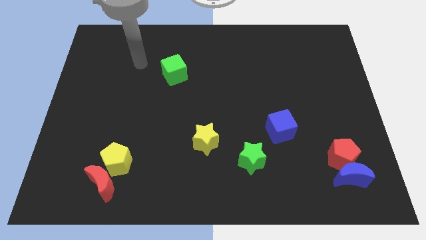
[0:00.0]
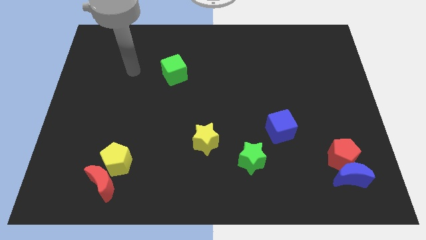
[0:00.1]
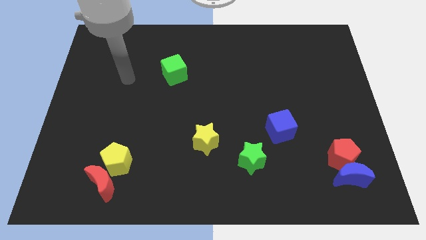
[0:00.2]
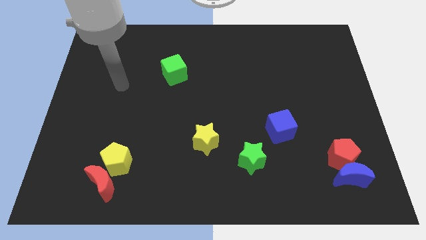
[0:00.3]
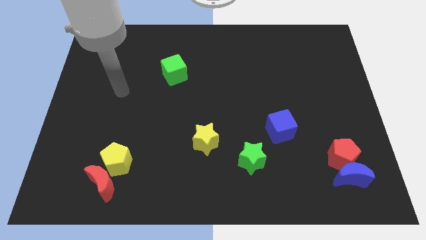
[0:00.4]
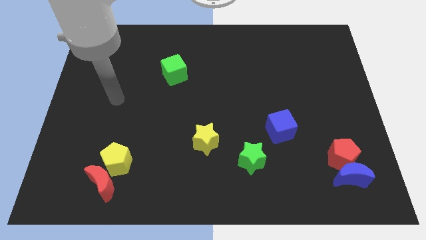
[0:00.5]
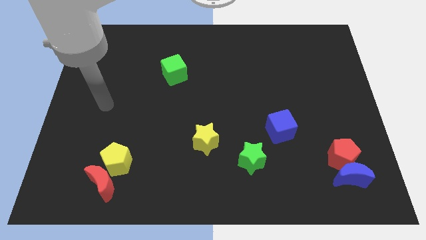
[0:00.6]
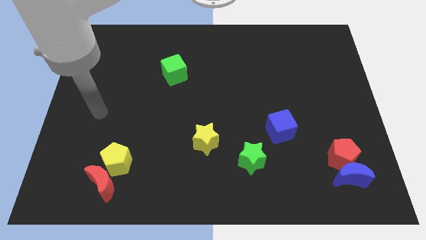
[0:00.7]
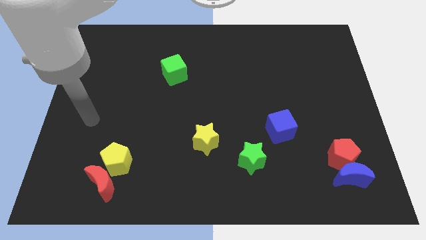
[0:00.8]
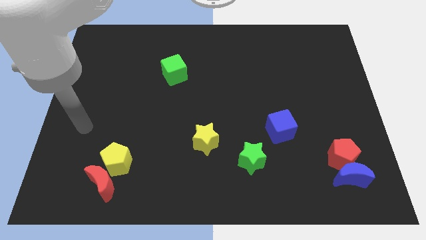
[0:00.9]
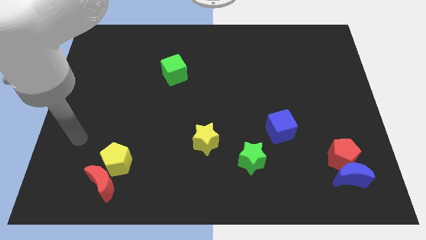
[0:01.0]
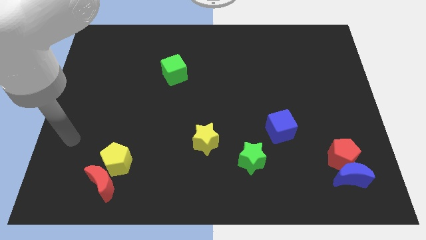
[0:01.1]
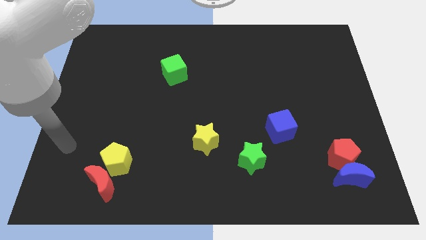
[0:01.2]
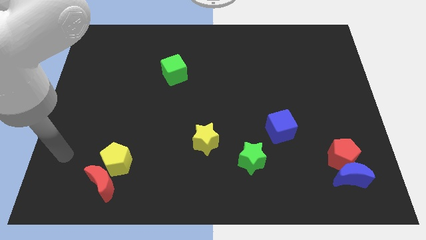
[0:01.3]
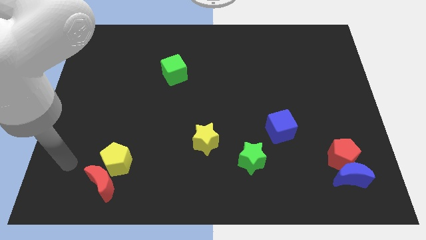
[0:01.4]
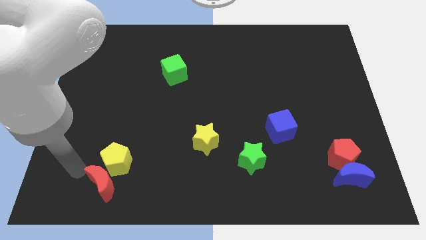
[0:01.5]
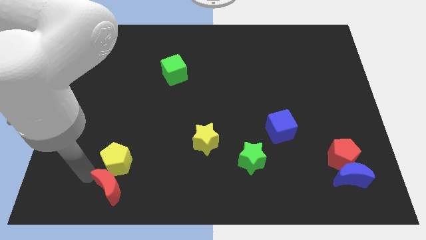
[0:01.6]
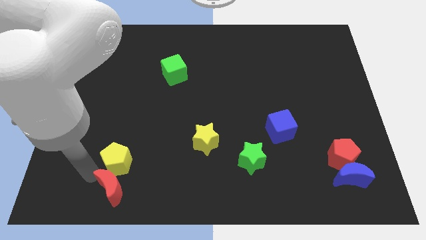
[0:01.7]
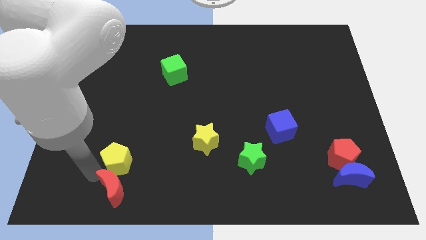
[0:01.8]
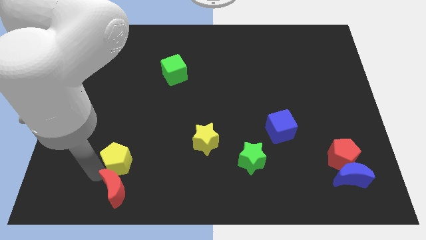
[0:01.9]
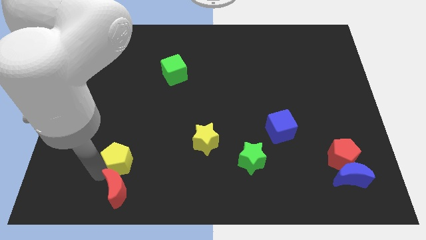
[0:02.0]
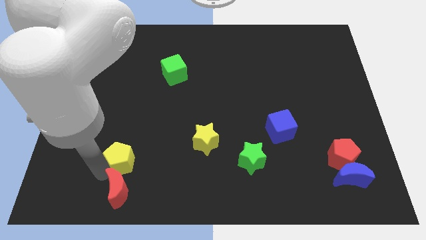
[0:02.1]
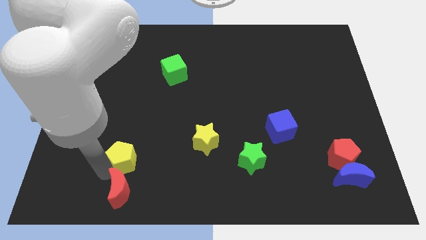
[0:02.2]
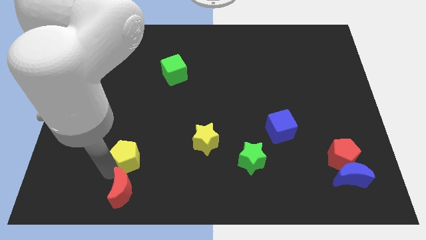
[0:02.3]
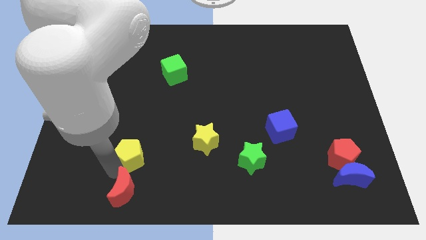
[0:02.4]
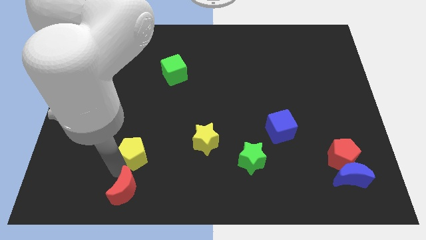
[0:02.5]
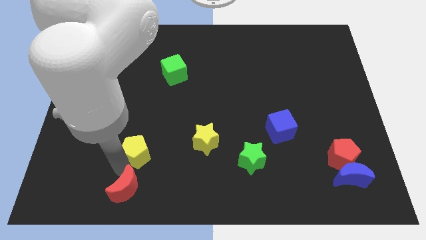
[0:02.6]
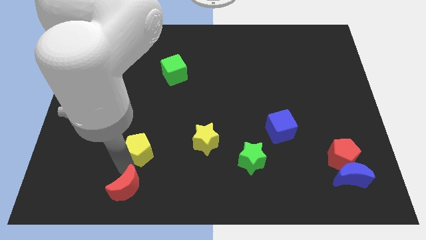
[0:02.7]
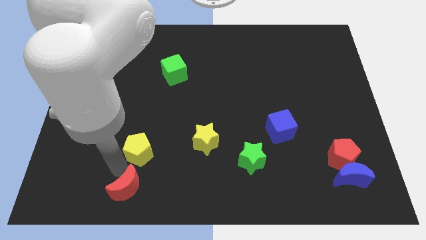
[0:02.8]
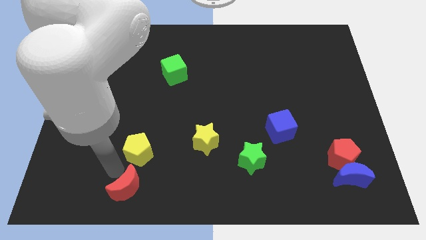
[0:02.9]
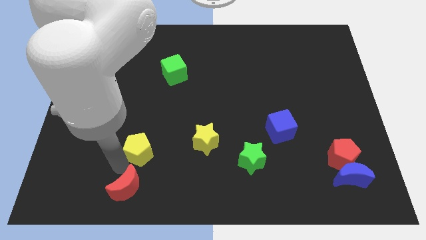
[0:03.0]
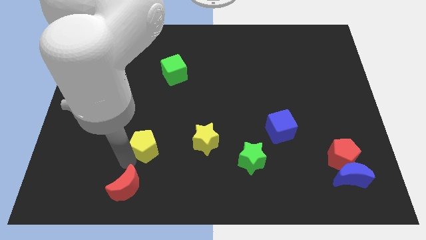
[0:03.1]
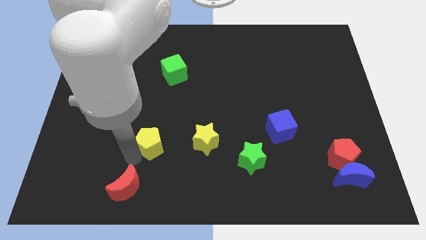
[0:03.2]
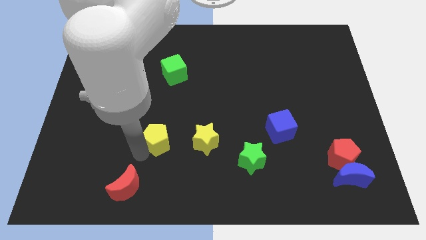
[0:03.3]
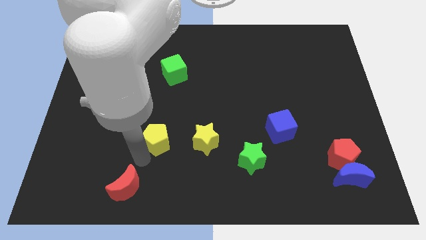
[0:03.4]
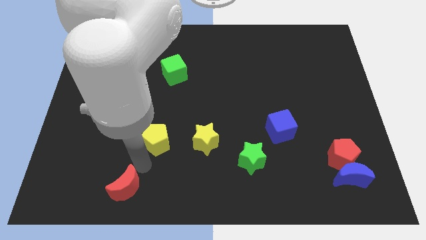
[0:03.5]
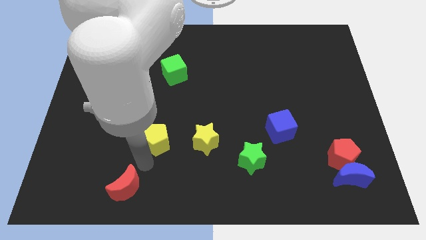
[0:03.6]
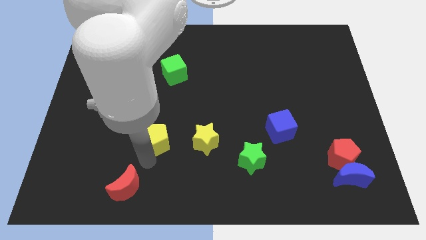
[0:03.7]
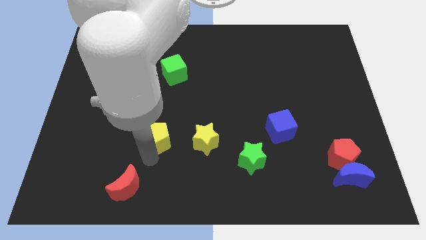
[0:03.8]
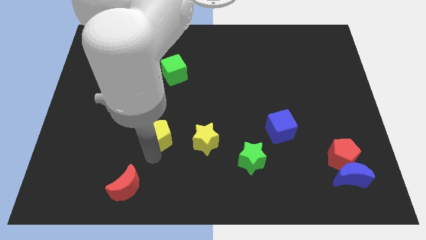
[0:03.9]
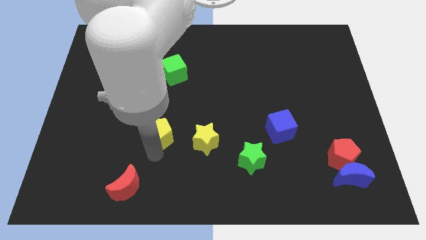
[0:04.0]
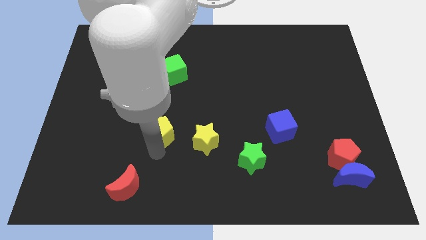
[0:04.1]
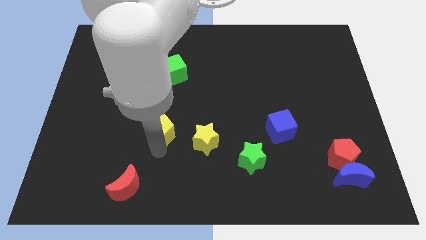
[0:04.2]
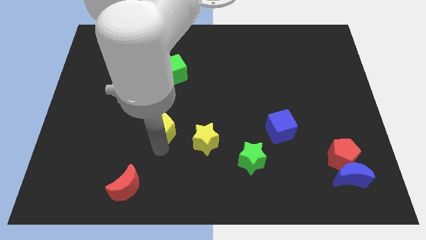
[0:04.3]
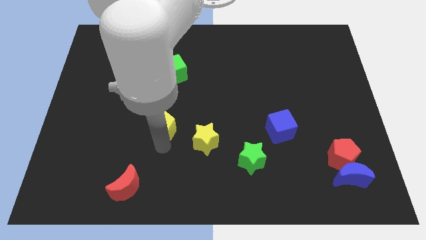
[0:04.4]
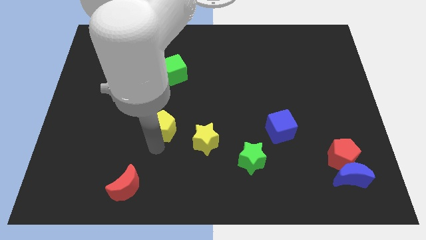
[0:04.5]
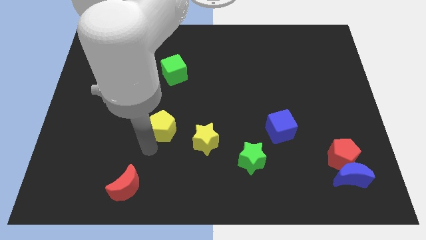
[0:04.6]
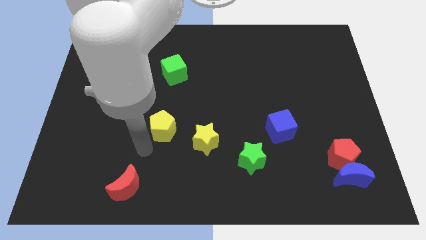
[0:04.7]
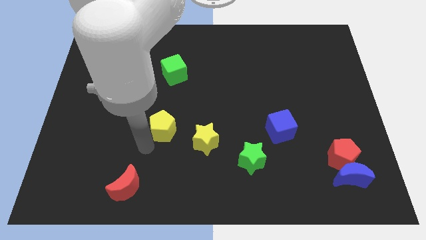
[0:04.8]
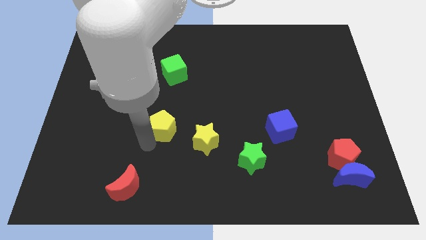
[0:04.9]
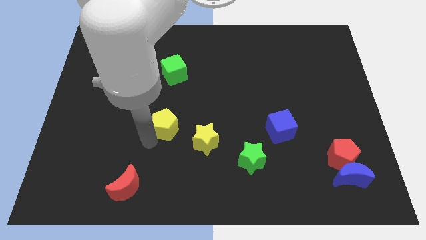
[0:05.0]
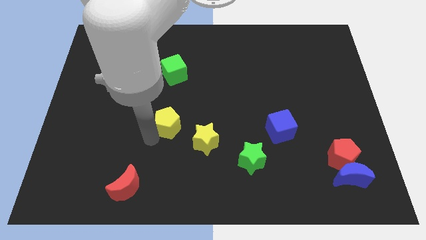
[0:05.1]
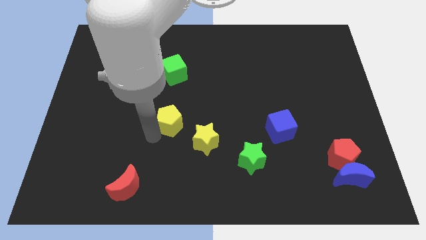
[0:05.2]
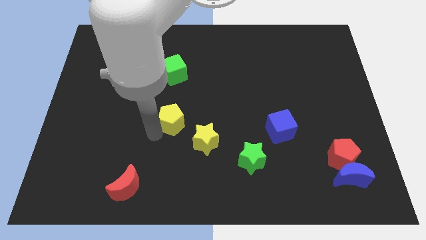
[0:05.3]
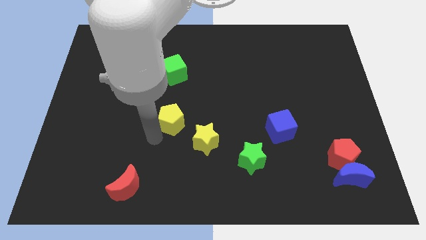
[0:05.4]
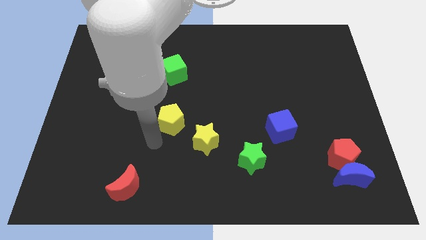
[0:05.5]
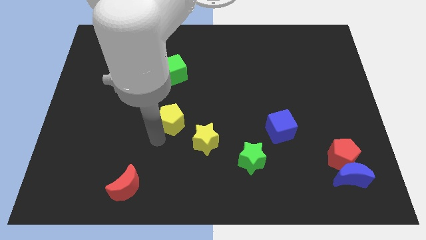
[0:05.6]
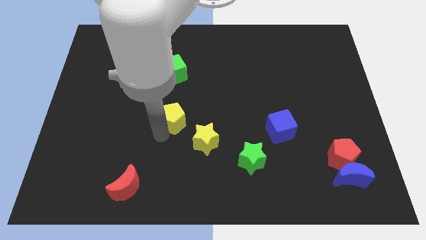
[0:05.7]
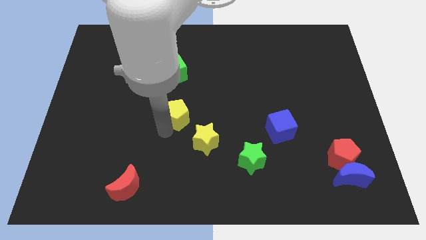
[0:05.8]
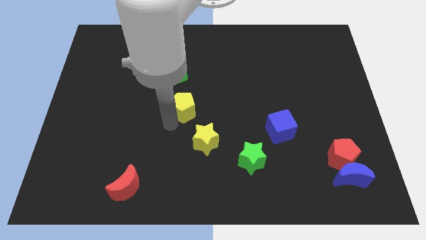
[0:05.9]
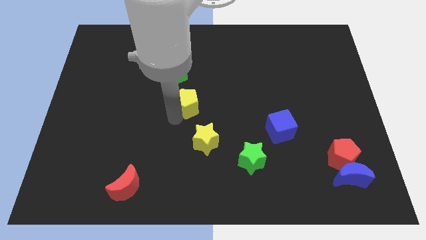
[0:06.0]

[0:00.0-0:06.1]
slide the yellow pentagon up and to the right

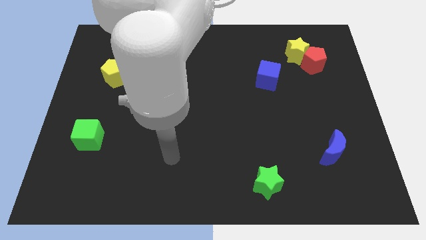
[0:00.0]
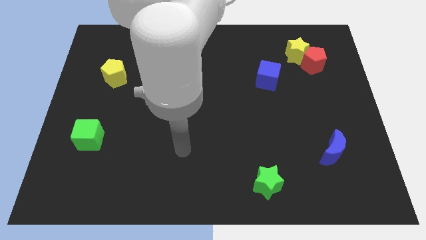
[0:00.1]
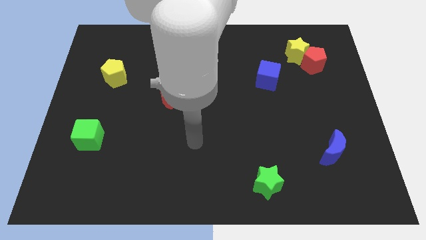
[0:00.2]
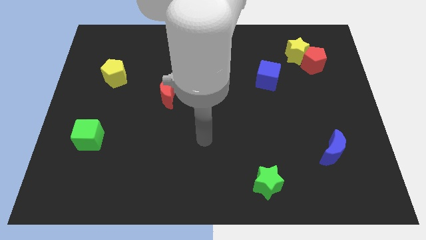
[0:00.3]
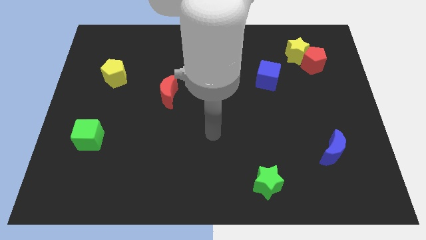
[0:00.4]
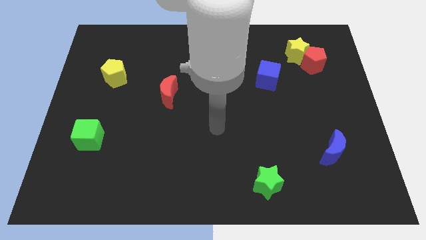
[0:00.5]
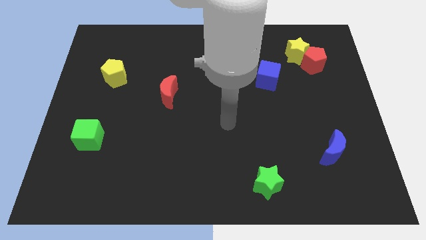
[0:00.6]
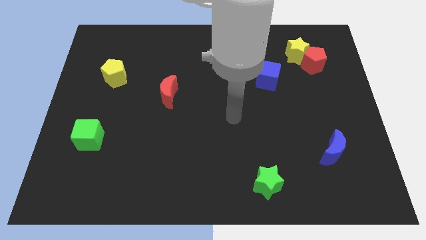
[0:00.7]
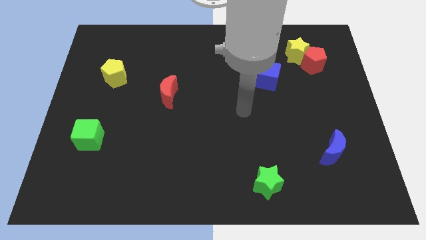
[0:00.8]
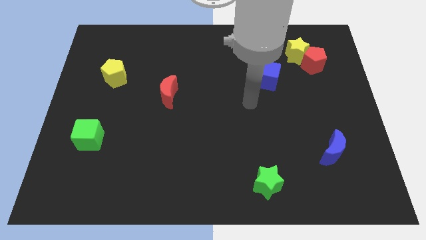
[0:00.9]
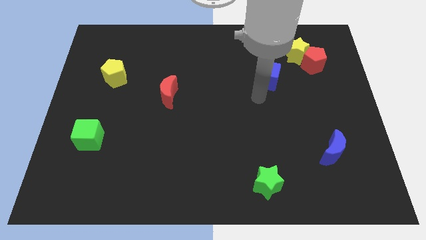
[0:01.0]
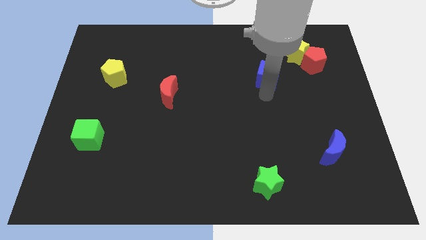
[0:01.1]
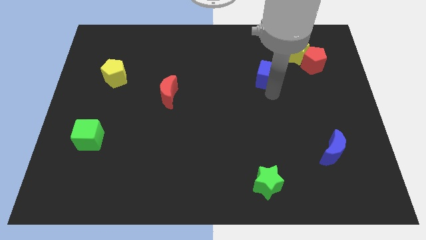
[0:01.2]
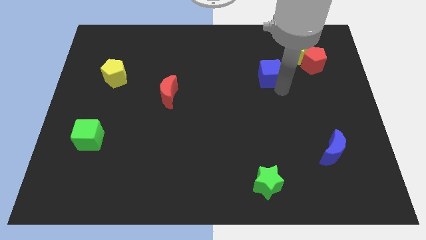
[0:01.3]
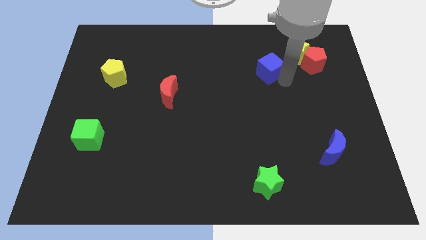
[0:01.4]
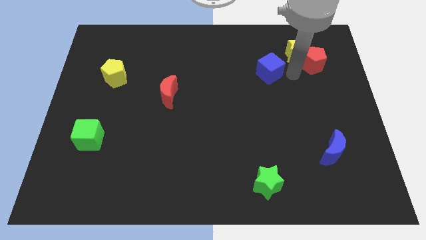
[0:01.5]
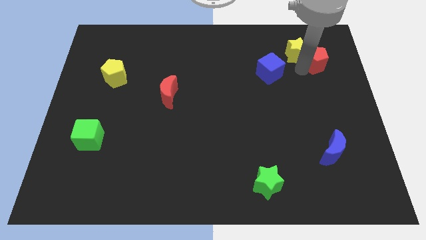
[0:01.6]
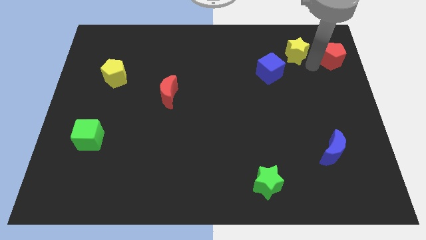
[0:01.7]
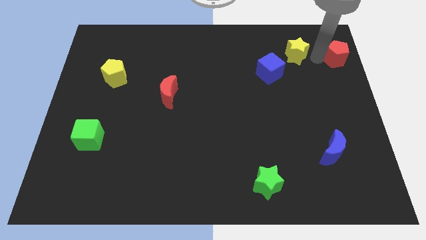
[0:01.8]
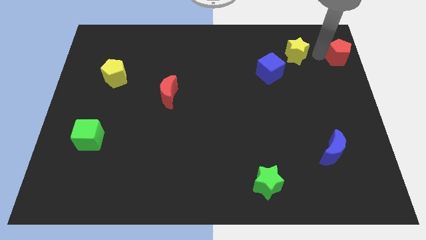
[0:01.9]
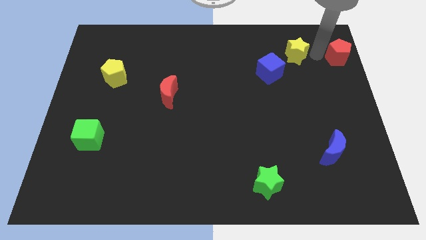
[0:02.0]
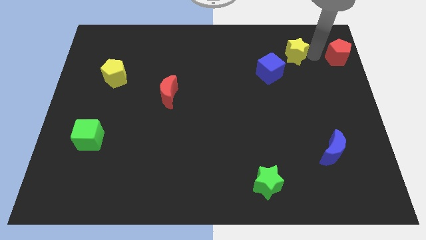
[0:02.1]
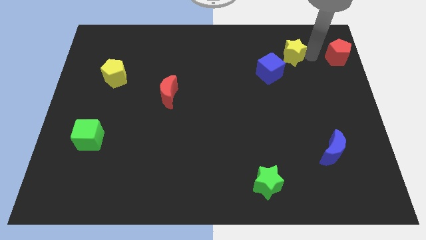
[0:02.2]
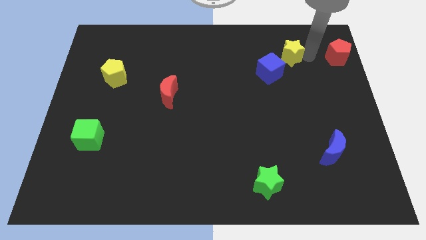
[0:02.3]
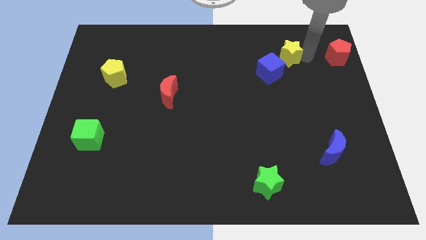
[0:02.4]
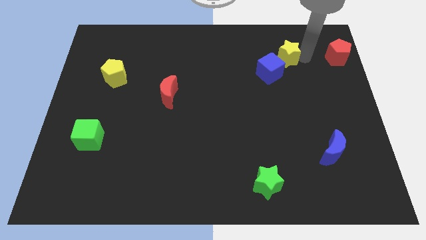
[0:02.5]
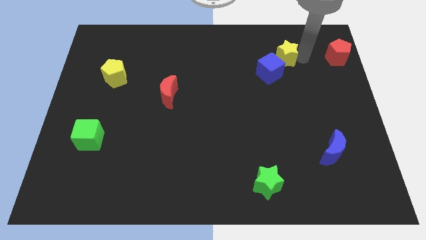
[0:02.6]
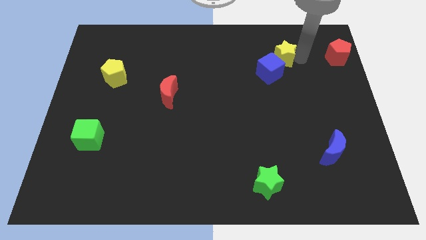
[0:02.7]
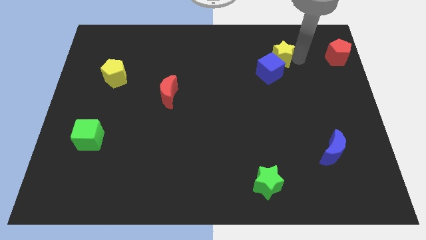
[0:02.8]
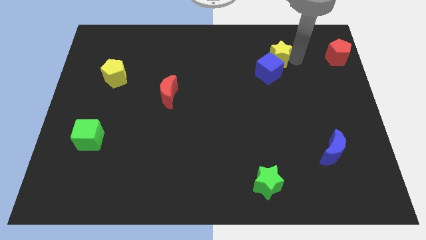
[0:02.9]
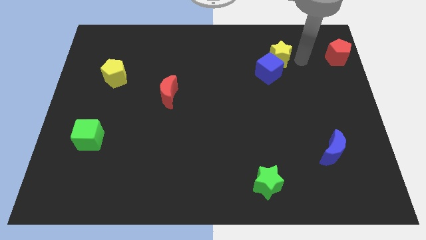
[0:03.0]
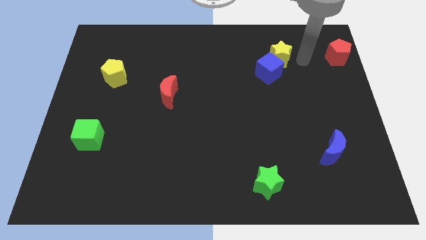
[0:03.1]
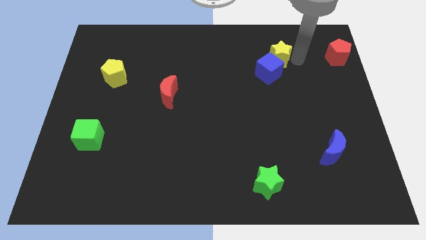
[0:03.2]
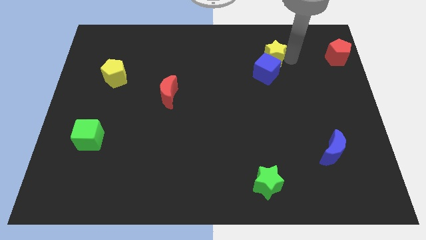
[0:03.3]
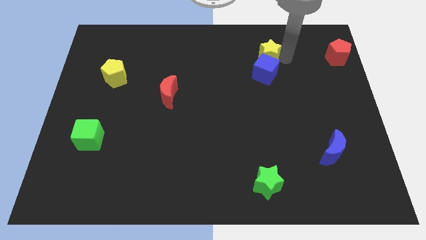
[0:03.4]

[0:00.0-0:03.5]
slide the yellow star left a little
